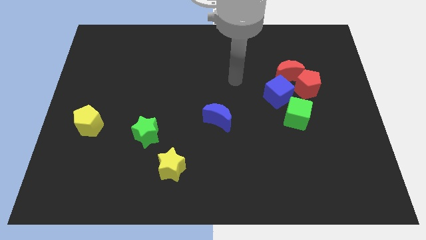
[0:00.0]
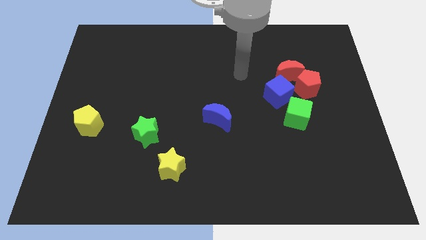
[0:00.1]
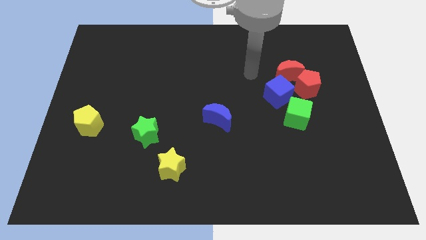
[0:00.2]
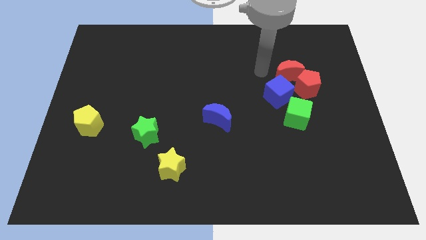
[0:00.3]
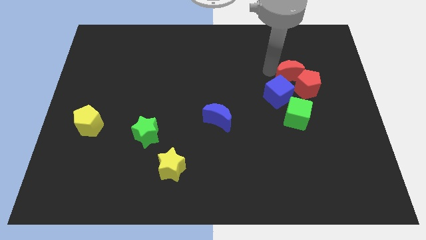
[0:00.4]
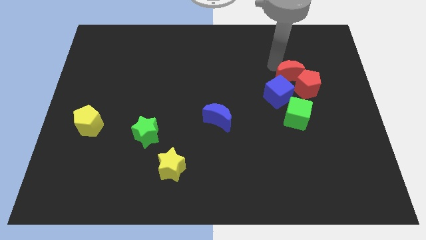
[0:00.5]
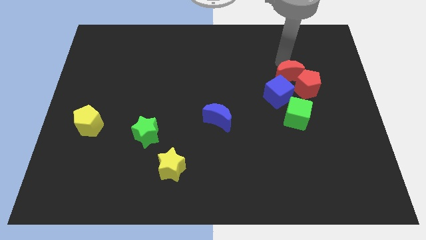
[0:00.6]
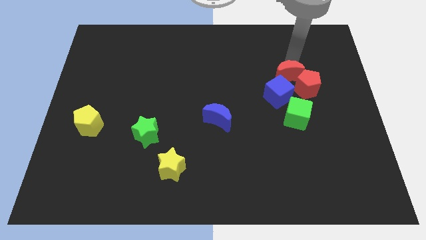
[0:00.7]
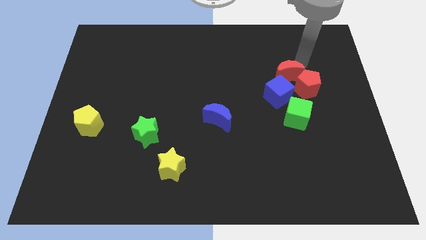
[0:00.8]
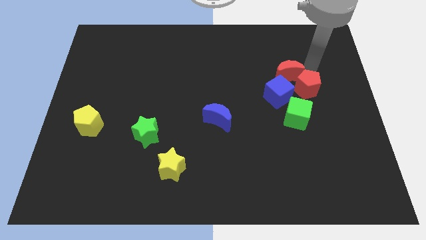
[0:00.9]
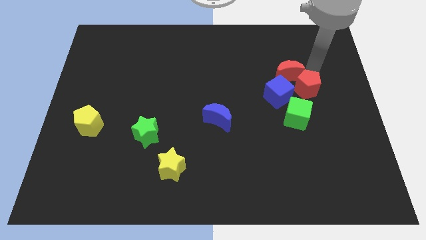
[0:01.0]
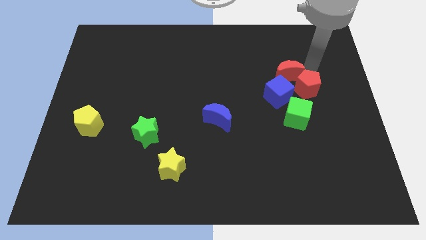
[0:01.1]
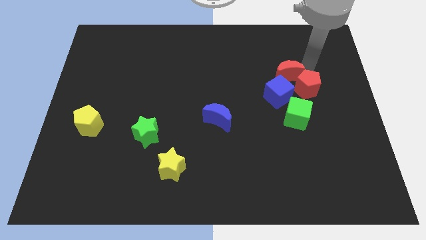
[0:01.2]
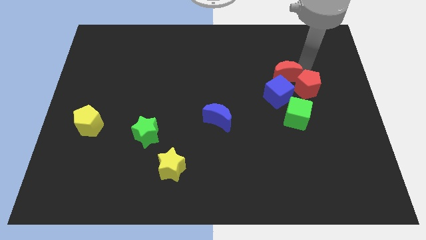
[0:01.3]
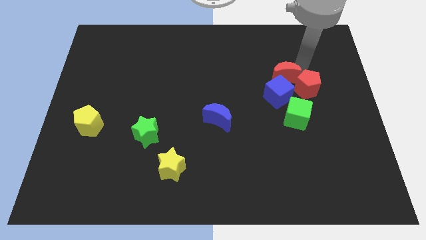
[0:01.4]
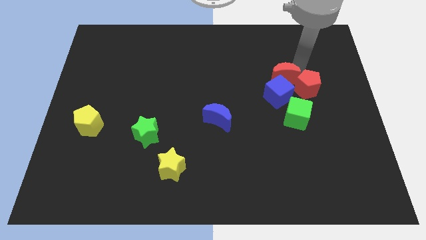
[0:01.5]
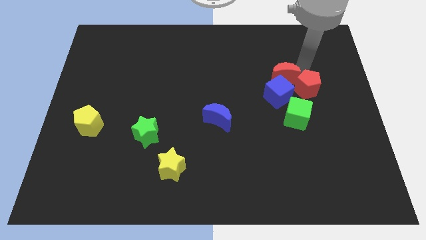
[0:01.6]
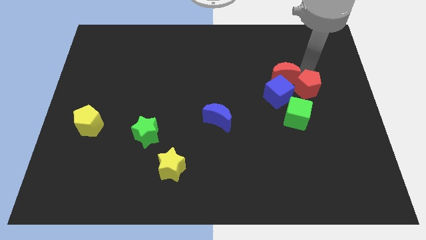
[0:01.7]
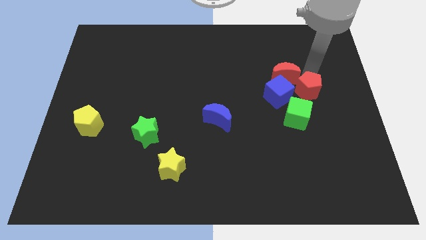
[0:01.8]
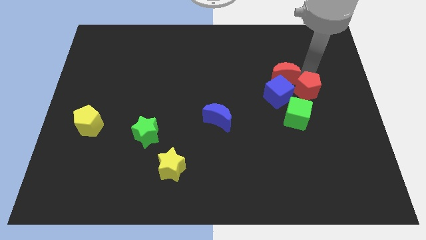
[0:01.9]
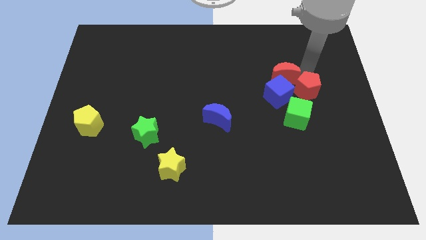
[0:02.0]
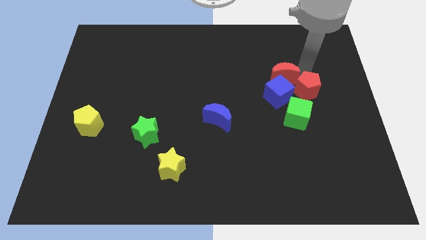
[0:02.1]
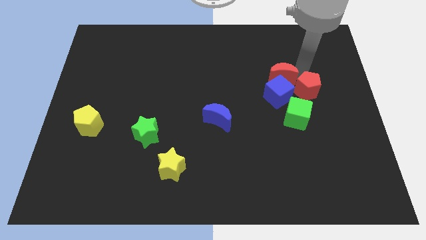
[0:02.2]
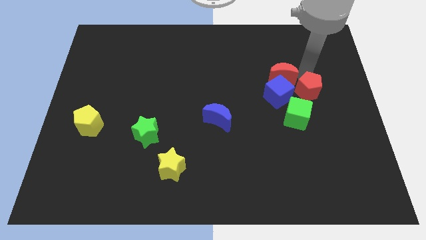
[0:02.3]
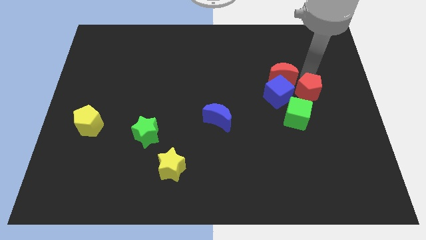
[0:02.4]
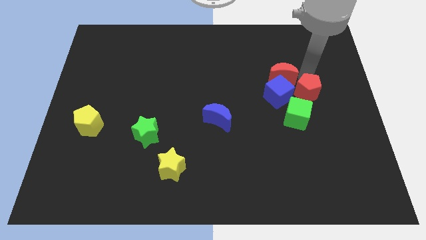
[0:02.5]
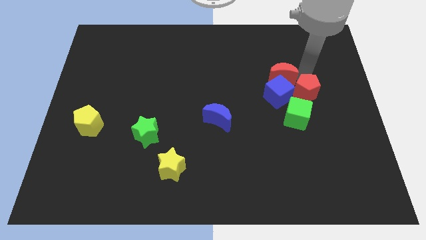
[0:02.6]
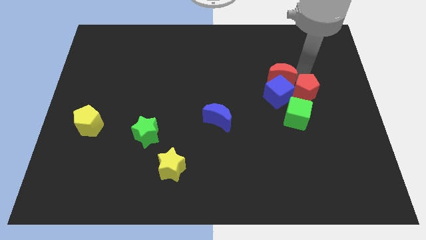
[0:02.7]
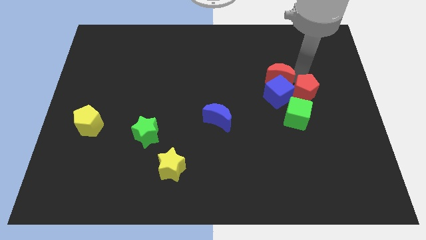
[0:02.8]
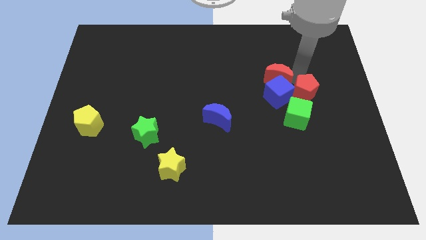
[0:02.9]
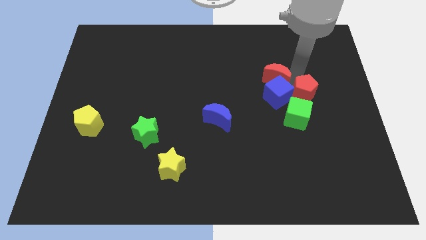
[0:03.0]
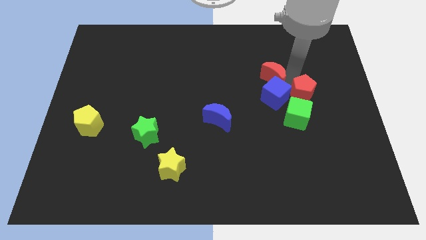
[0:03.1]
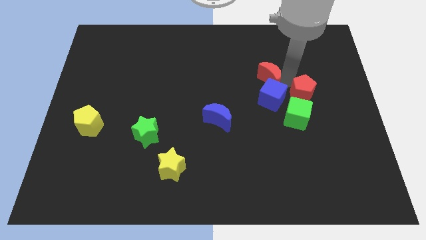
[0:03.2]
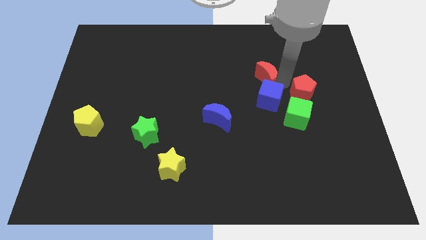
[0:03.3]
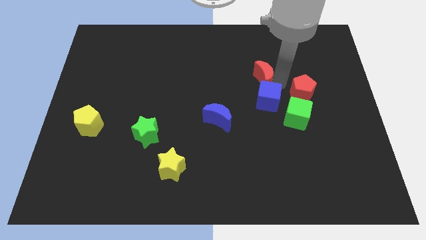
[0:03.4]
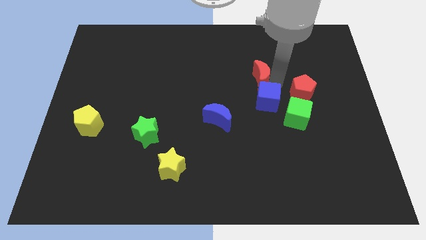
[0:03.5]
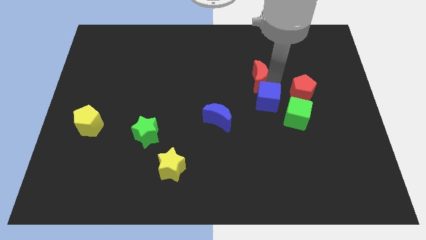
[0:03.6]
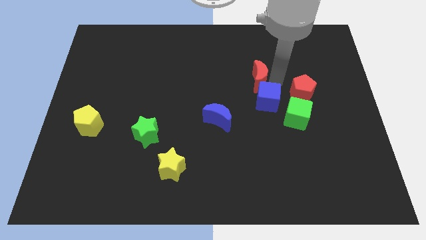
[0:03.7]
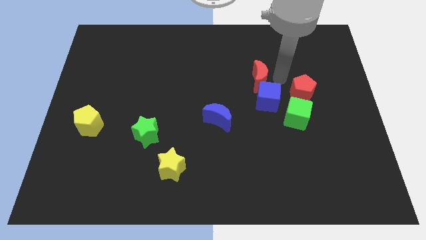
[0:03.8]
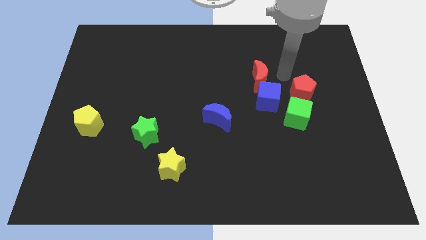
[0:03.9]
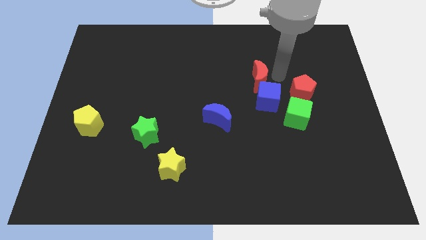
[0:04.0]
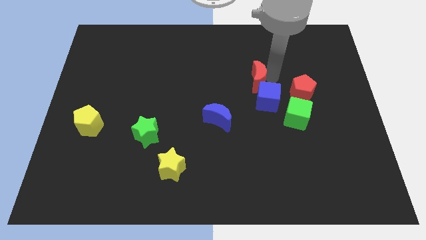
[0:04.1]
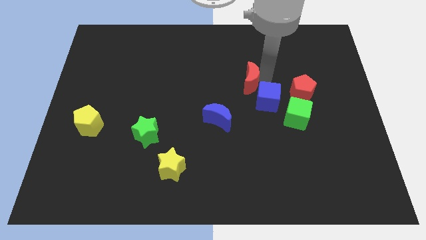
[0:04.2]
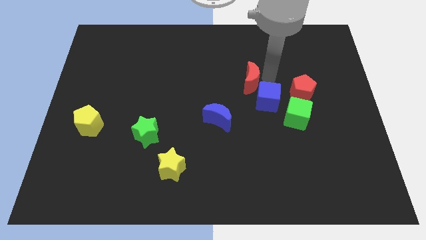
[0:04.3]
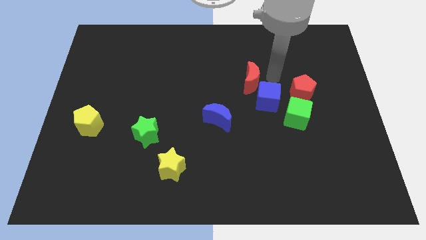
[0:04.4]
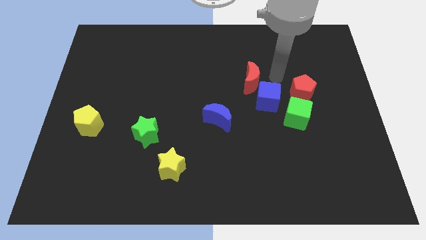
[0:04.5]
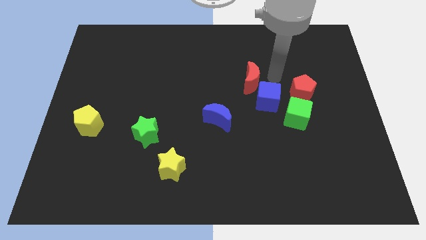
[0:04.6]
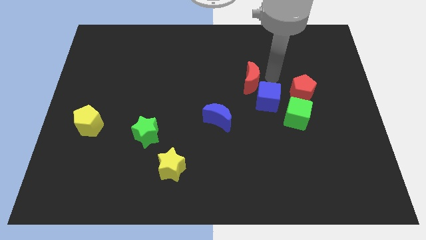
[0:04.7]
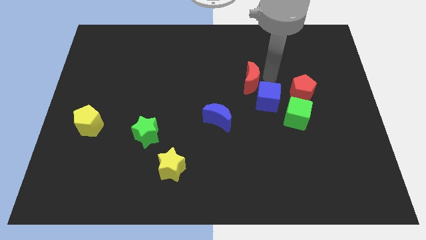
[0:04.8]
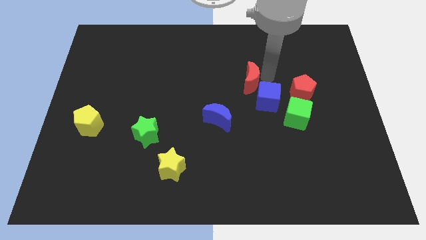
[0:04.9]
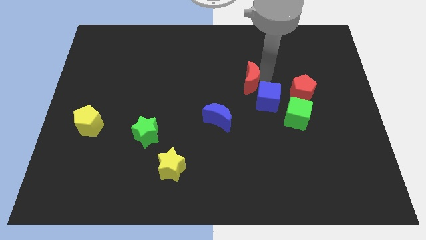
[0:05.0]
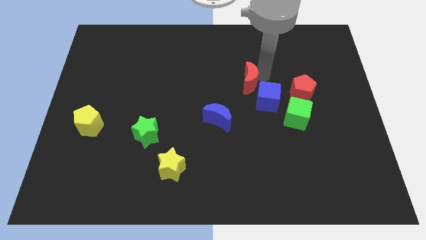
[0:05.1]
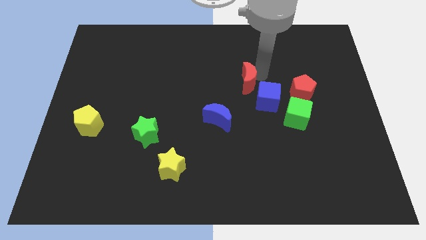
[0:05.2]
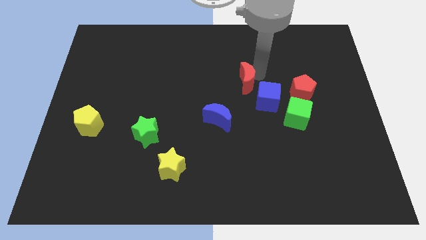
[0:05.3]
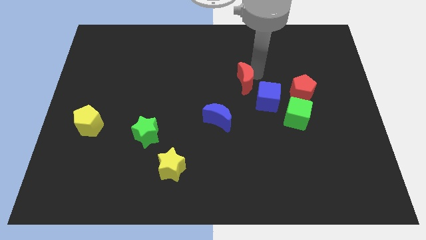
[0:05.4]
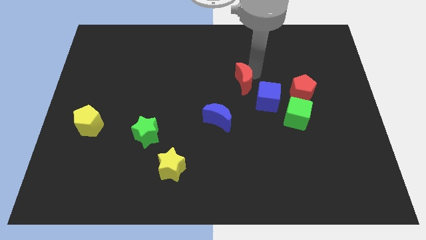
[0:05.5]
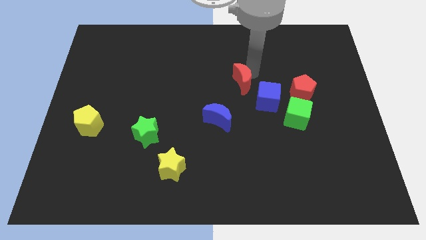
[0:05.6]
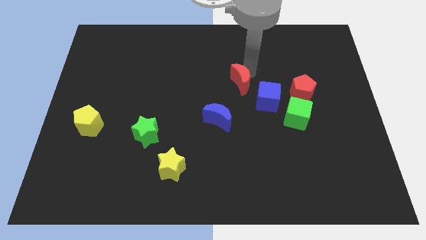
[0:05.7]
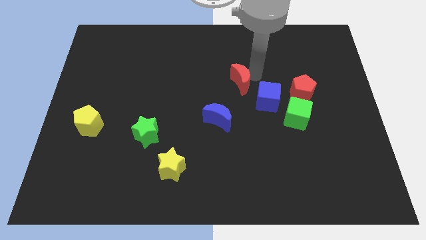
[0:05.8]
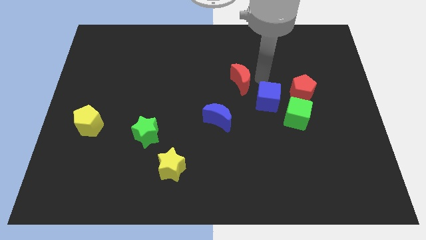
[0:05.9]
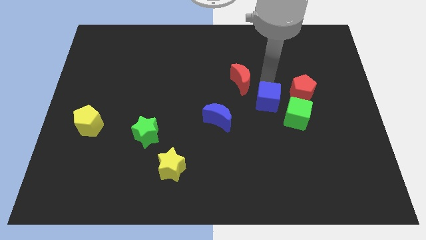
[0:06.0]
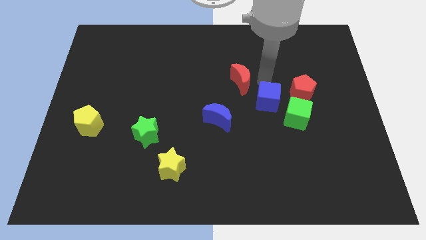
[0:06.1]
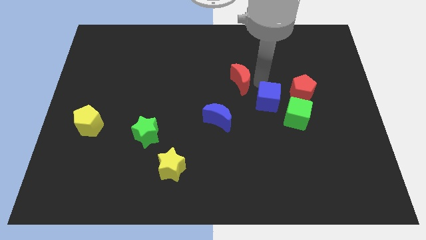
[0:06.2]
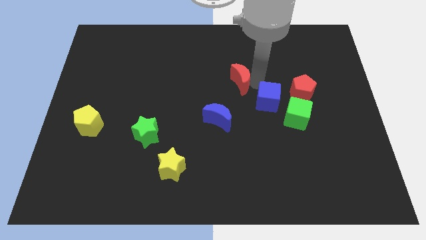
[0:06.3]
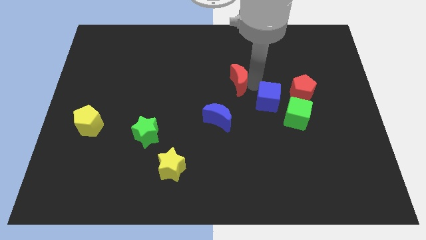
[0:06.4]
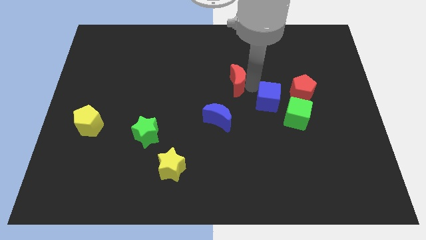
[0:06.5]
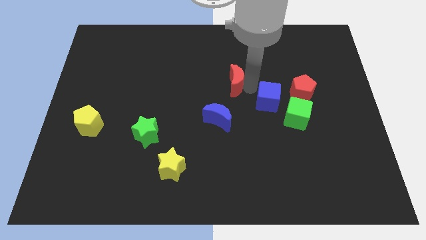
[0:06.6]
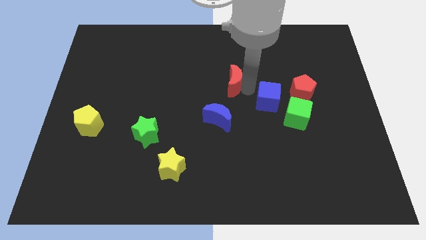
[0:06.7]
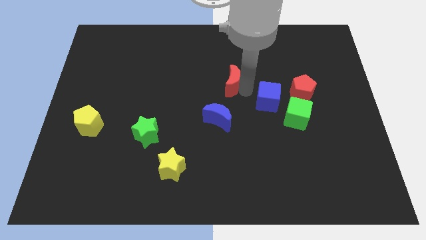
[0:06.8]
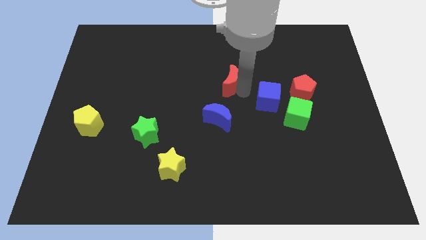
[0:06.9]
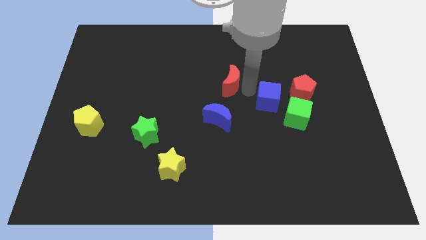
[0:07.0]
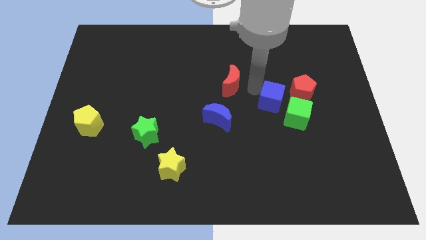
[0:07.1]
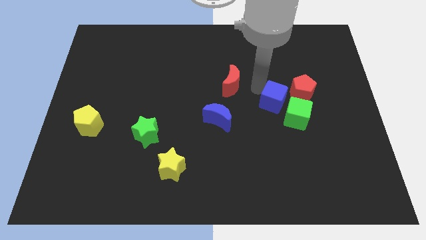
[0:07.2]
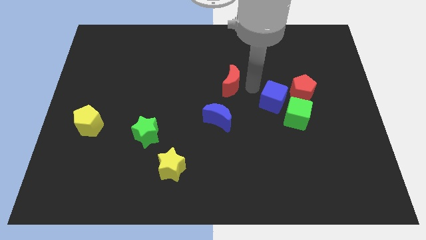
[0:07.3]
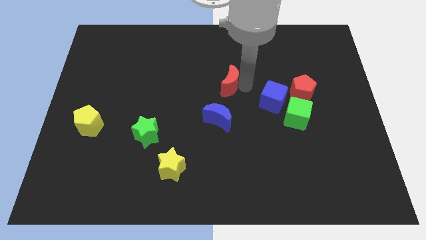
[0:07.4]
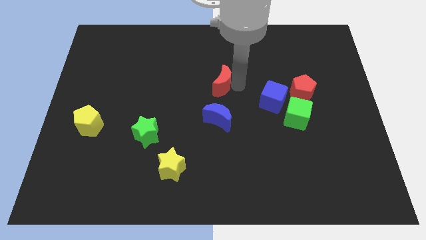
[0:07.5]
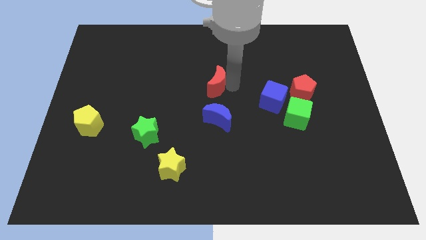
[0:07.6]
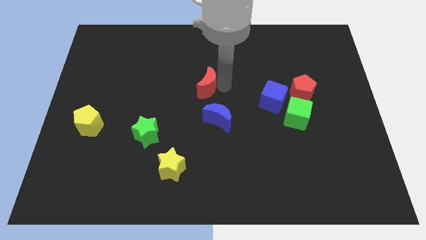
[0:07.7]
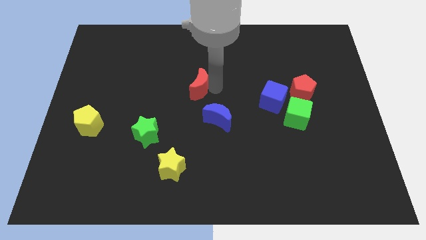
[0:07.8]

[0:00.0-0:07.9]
push the red moon to the left

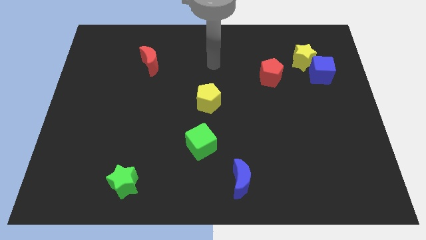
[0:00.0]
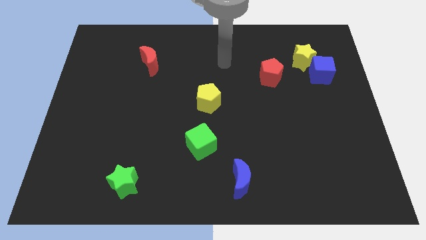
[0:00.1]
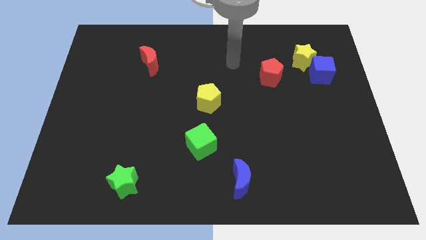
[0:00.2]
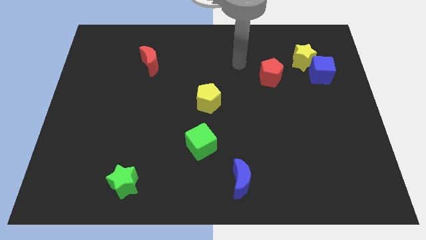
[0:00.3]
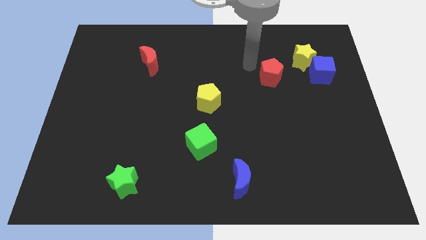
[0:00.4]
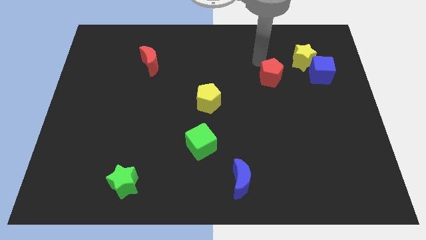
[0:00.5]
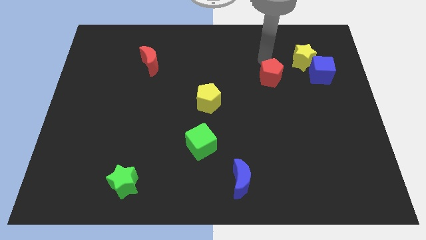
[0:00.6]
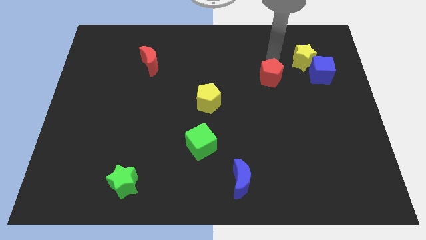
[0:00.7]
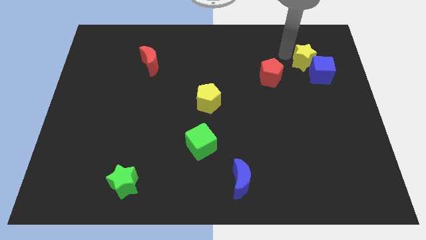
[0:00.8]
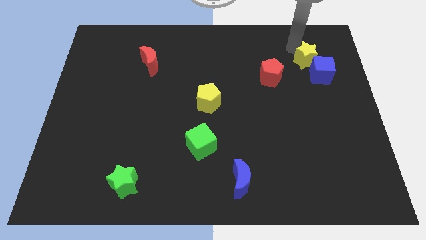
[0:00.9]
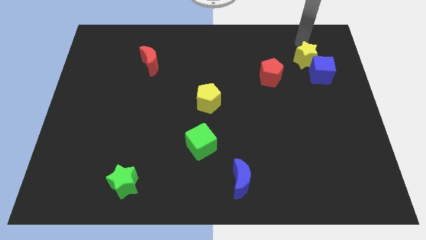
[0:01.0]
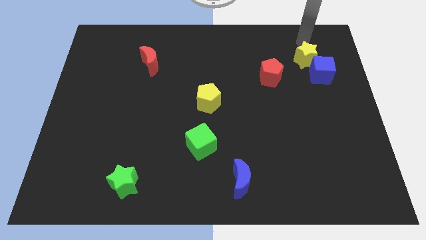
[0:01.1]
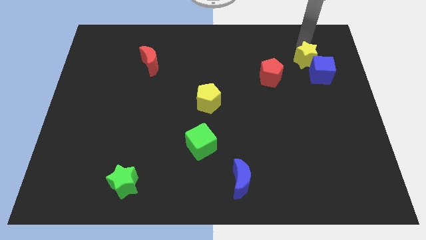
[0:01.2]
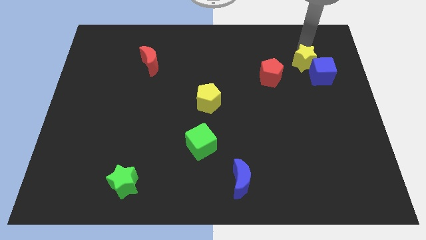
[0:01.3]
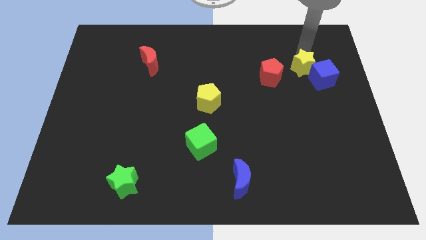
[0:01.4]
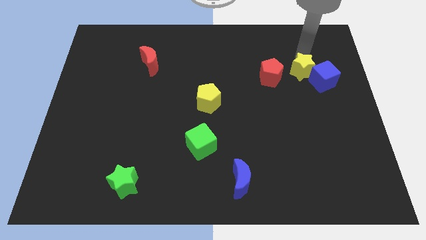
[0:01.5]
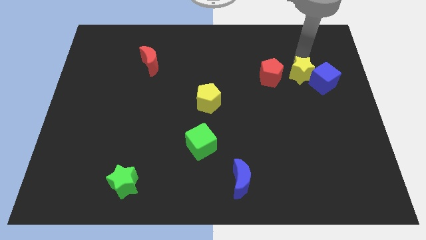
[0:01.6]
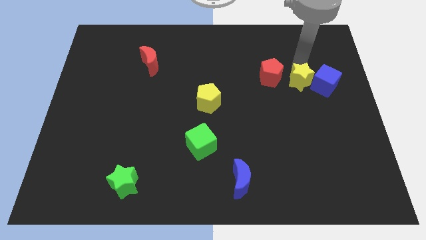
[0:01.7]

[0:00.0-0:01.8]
move the yellow star slightly downwards
